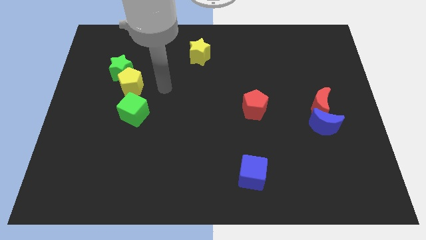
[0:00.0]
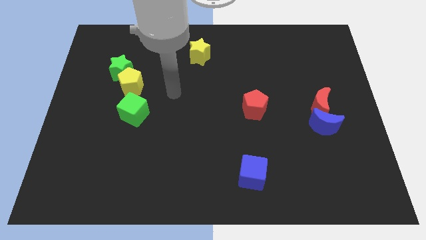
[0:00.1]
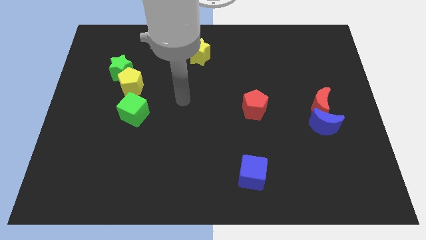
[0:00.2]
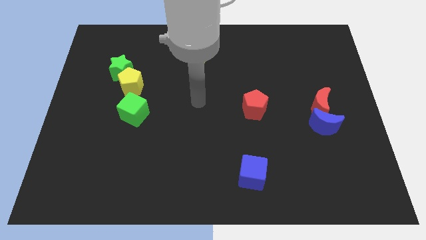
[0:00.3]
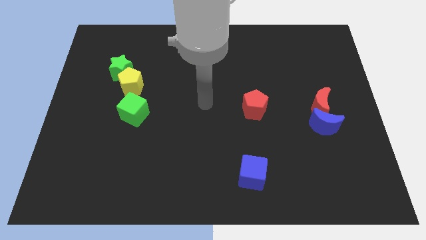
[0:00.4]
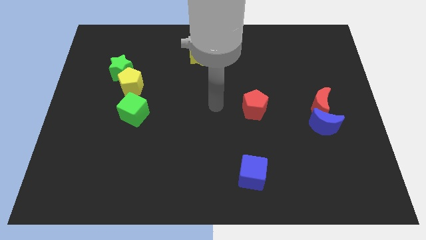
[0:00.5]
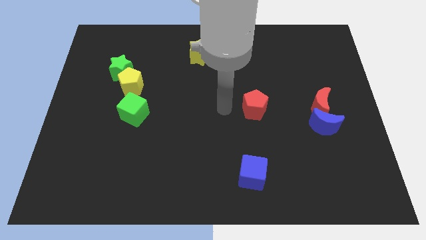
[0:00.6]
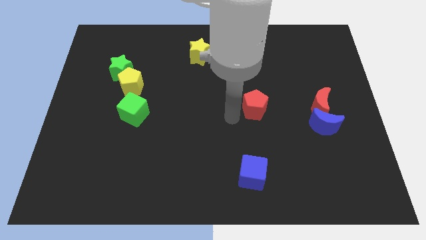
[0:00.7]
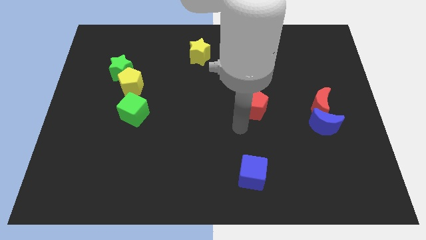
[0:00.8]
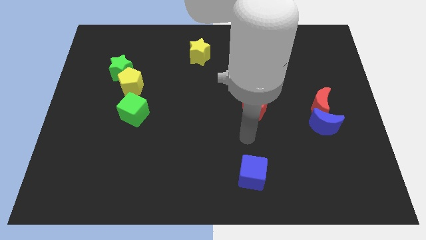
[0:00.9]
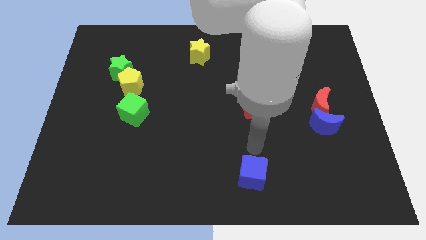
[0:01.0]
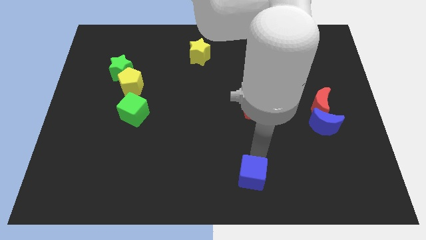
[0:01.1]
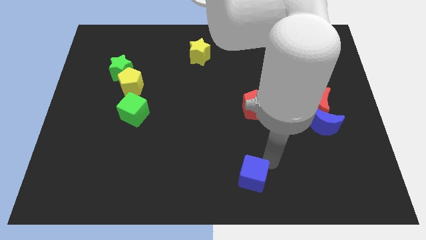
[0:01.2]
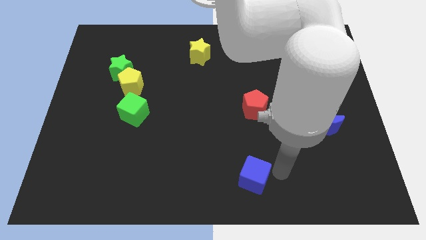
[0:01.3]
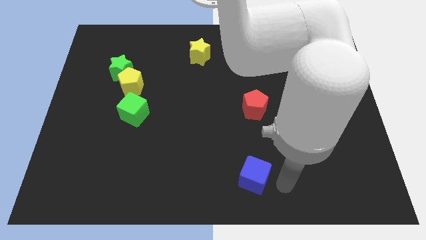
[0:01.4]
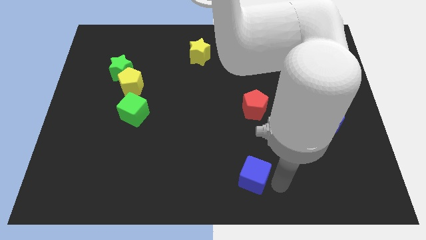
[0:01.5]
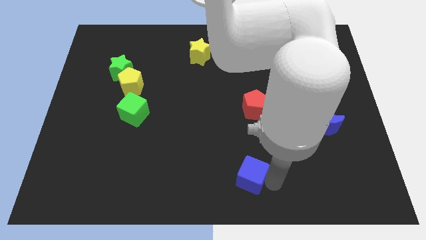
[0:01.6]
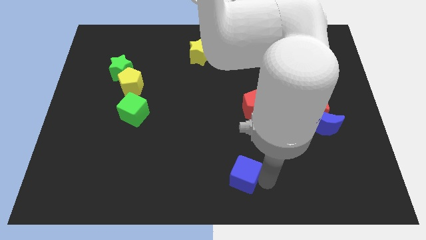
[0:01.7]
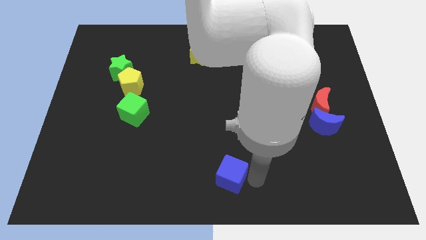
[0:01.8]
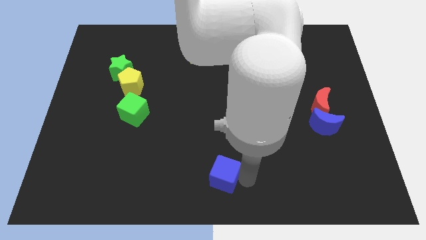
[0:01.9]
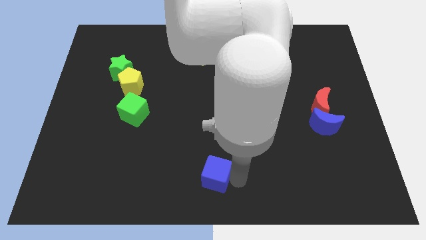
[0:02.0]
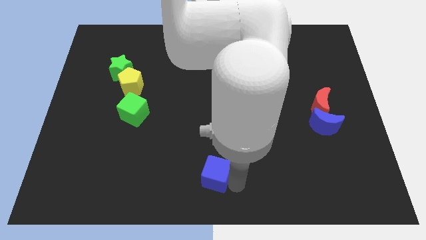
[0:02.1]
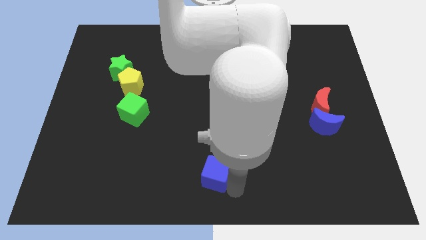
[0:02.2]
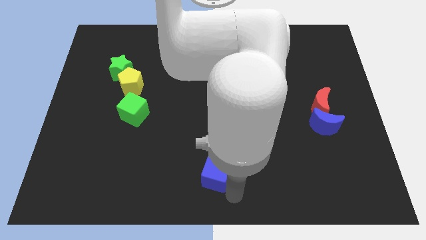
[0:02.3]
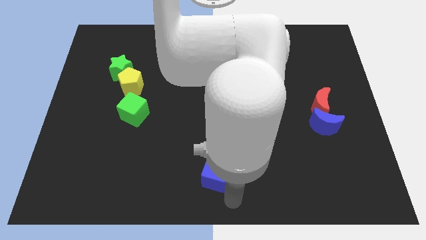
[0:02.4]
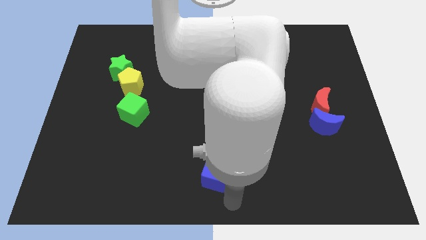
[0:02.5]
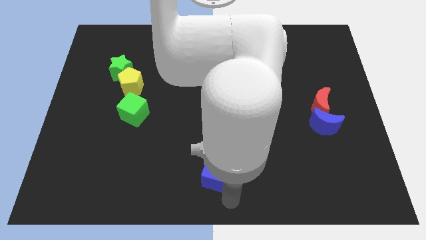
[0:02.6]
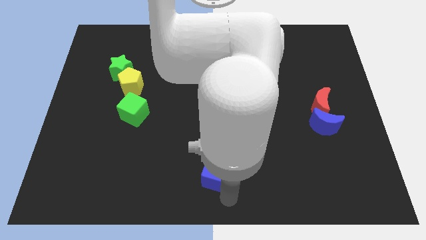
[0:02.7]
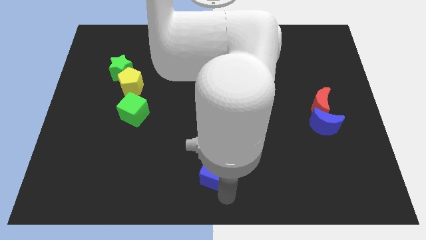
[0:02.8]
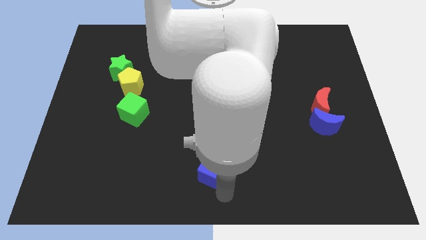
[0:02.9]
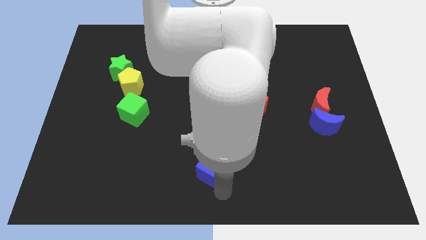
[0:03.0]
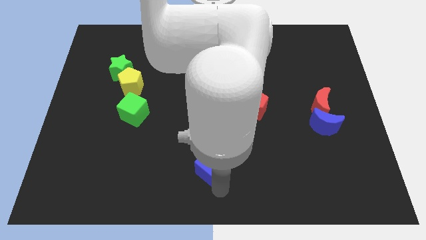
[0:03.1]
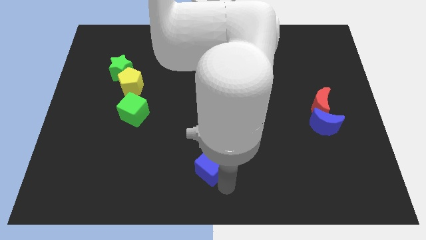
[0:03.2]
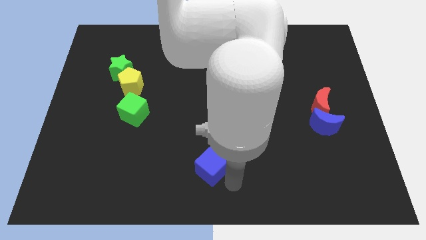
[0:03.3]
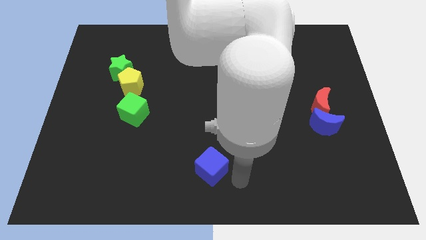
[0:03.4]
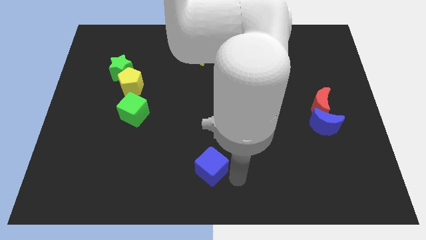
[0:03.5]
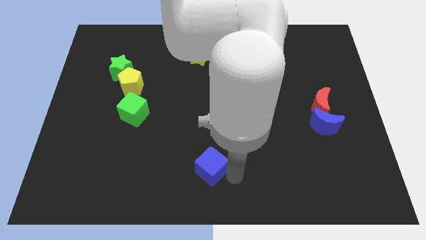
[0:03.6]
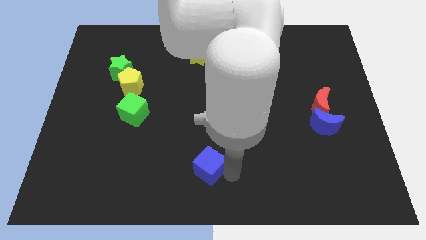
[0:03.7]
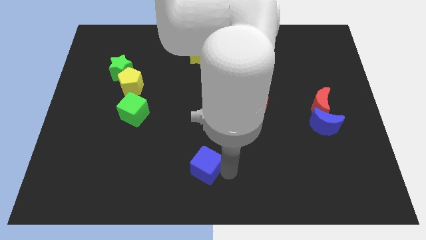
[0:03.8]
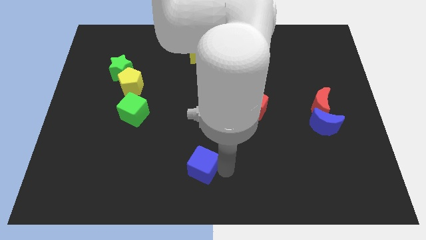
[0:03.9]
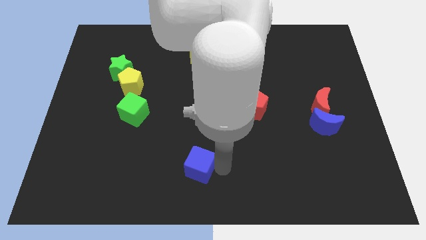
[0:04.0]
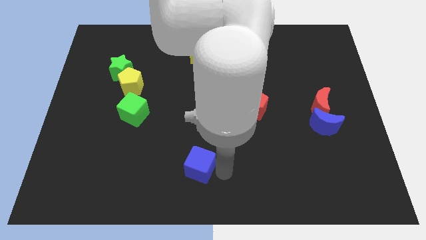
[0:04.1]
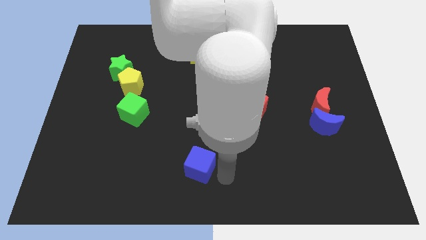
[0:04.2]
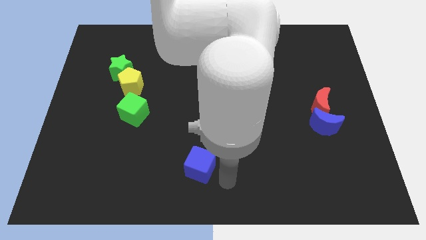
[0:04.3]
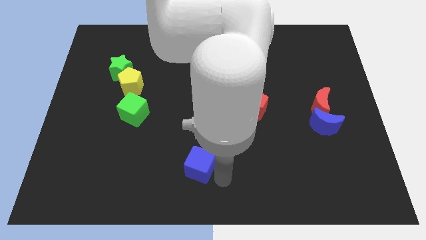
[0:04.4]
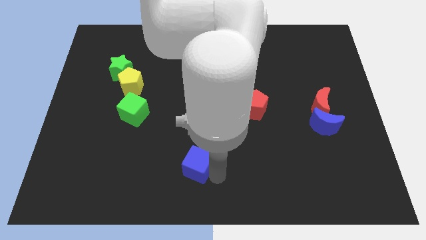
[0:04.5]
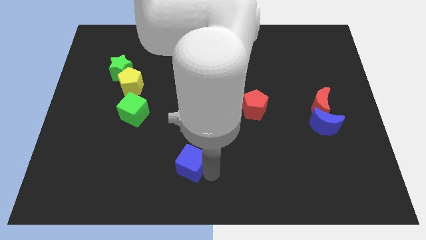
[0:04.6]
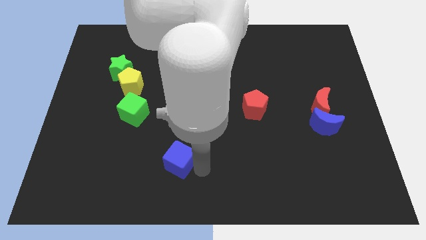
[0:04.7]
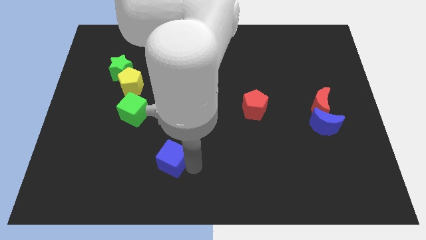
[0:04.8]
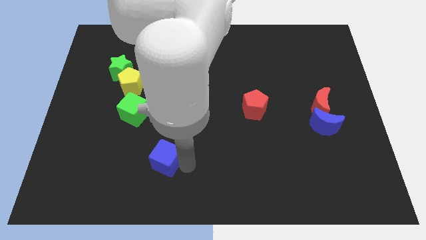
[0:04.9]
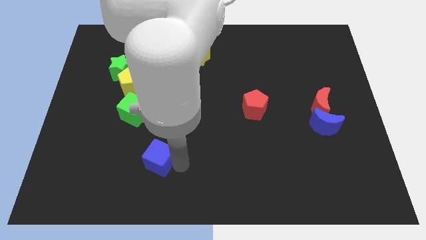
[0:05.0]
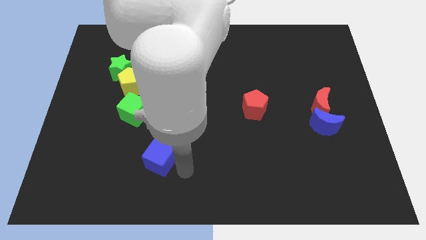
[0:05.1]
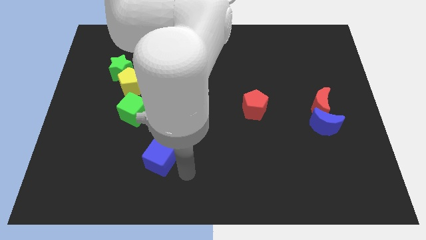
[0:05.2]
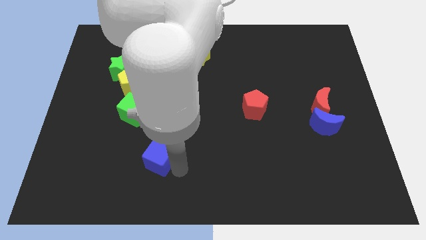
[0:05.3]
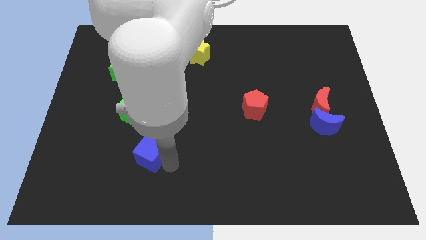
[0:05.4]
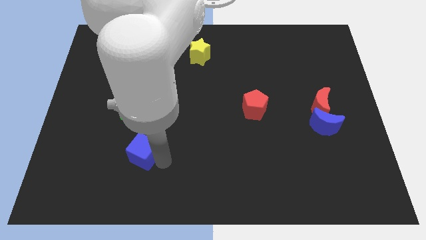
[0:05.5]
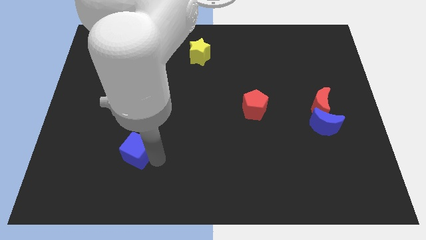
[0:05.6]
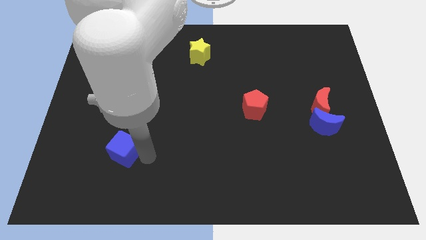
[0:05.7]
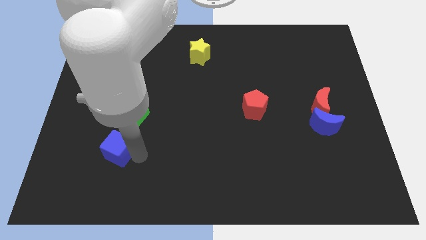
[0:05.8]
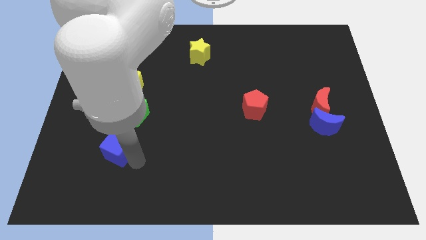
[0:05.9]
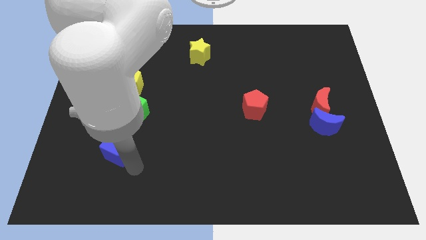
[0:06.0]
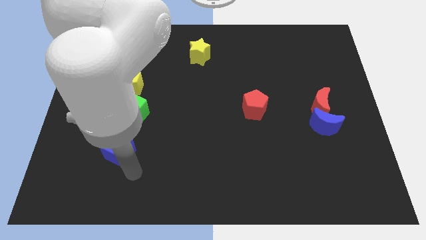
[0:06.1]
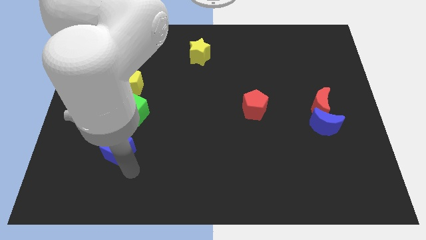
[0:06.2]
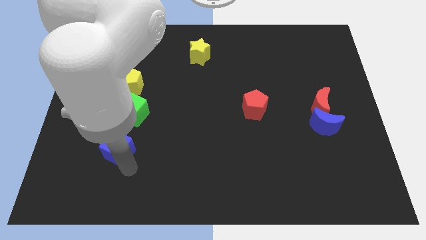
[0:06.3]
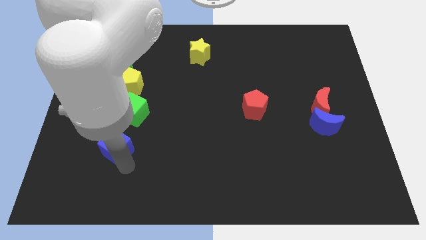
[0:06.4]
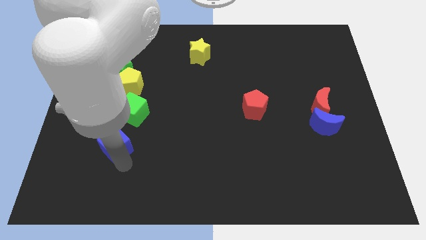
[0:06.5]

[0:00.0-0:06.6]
slide the blue cube to the bottom left of the green cube
